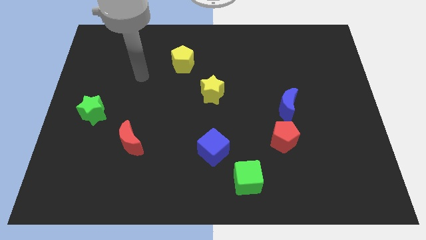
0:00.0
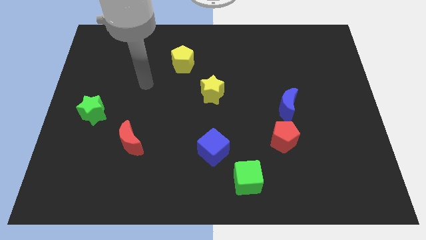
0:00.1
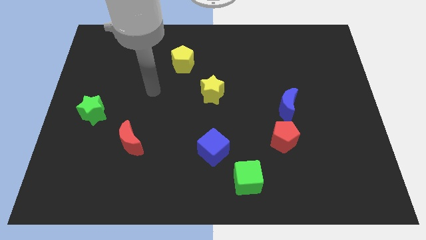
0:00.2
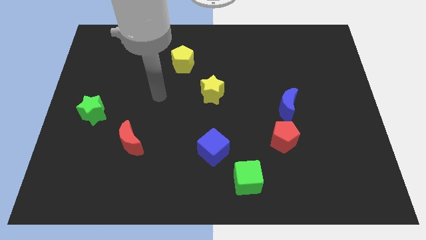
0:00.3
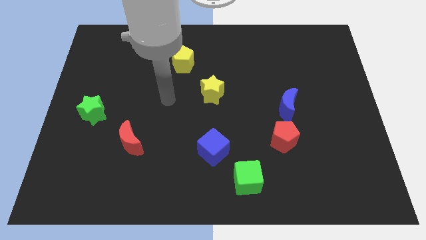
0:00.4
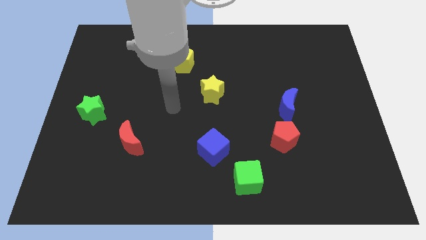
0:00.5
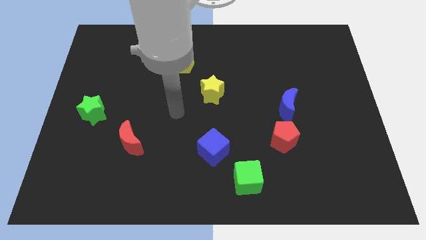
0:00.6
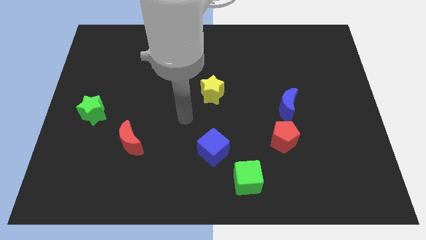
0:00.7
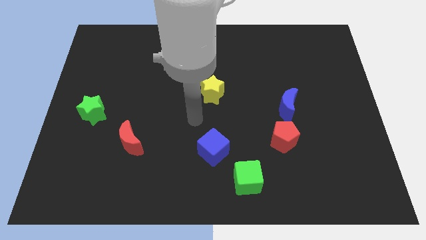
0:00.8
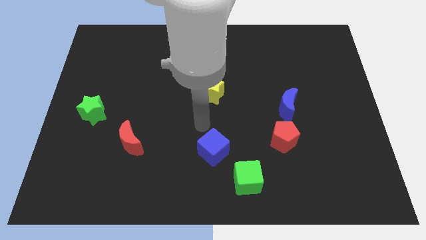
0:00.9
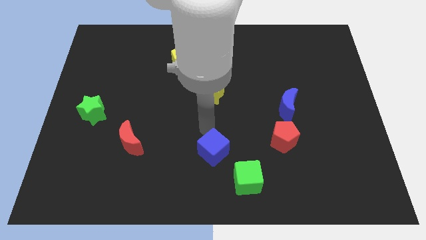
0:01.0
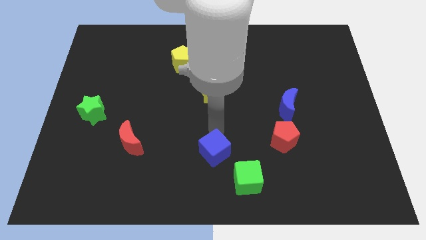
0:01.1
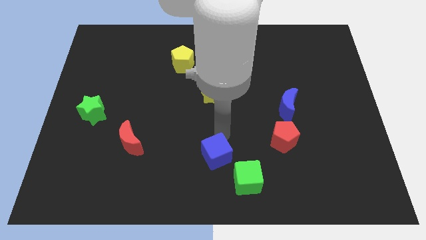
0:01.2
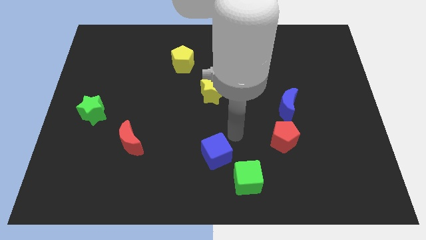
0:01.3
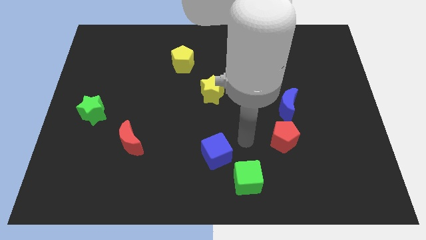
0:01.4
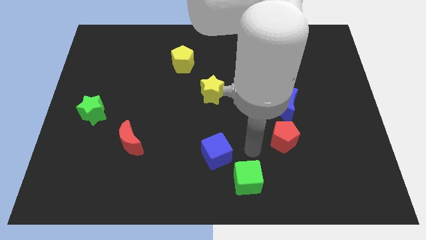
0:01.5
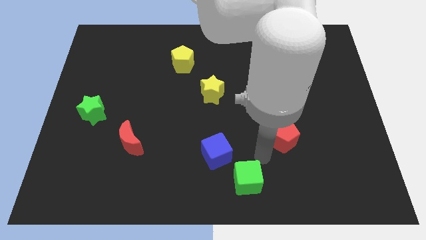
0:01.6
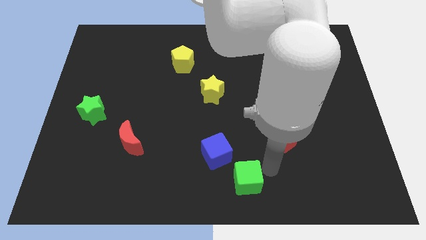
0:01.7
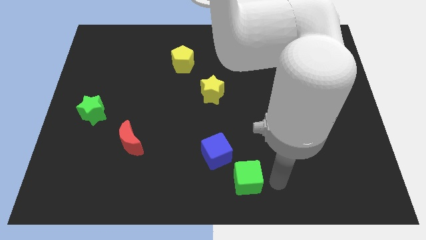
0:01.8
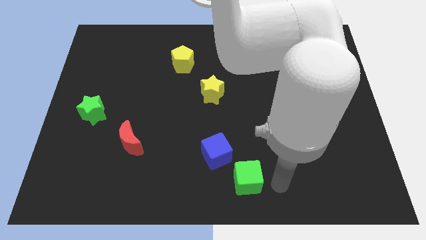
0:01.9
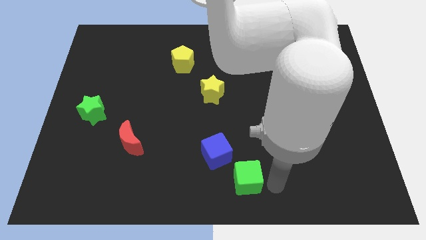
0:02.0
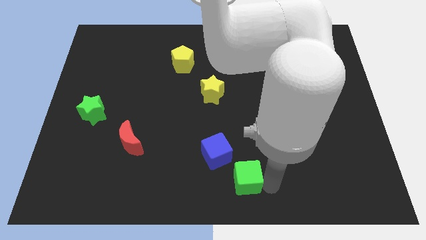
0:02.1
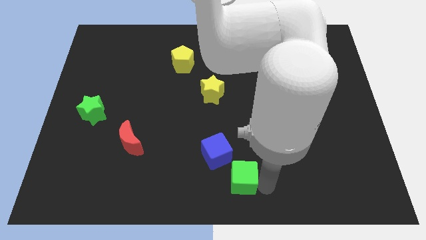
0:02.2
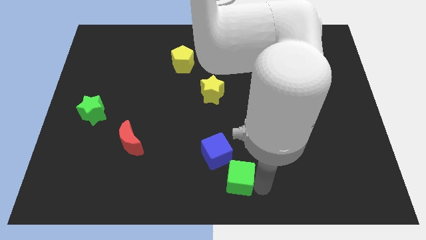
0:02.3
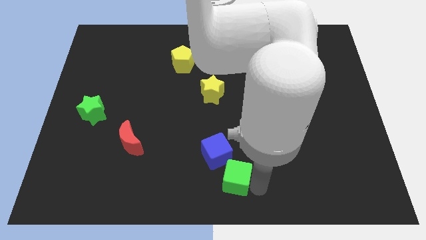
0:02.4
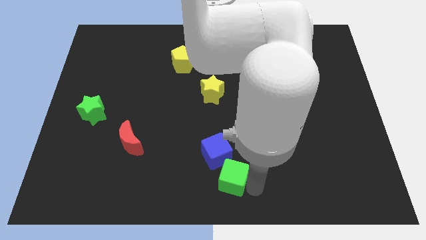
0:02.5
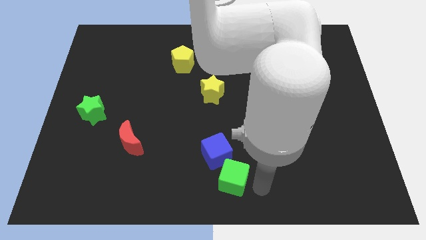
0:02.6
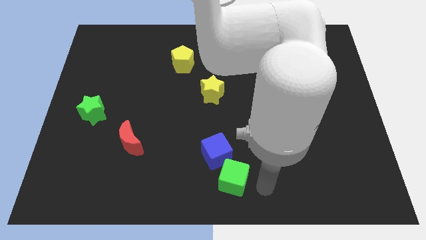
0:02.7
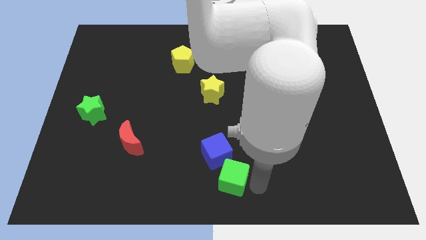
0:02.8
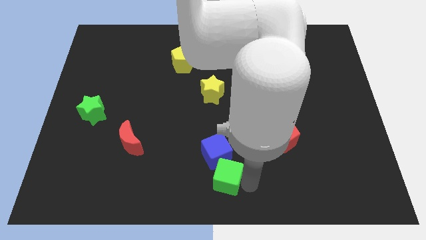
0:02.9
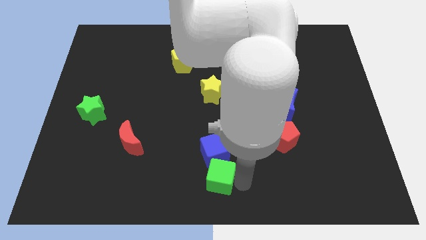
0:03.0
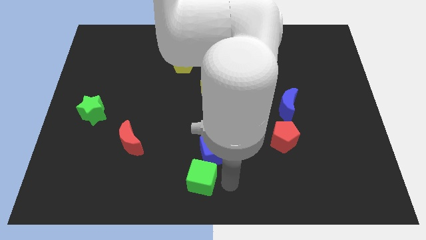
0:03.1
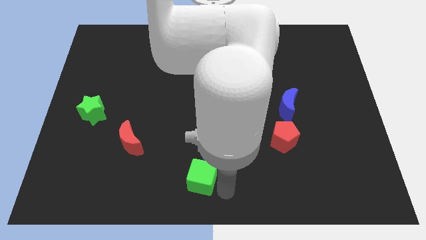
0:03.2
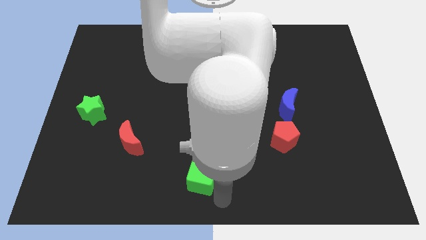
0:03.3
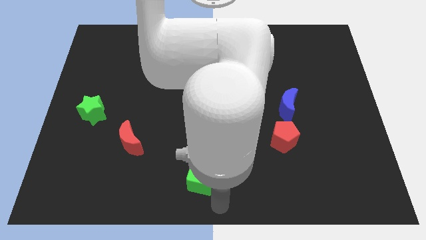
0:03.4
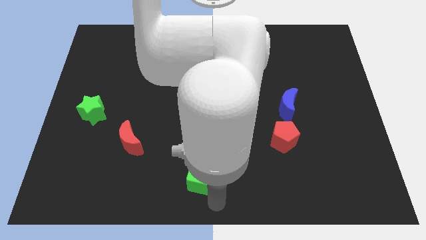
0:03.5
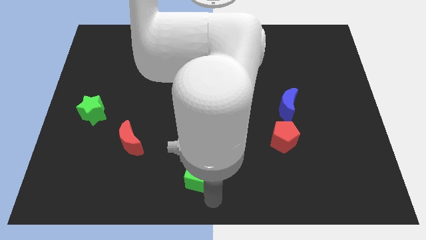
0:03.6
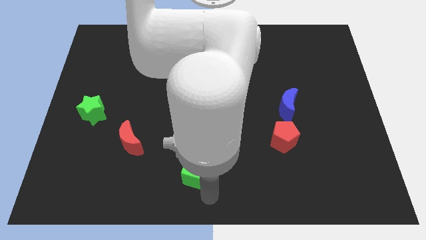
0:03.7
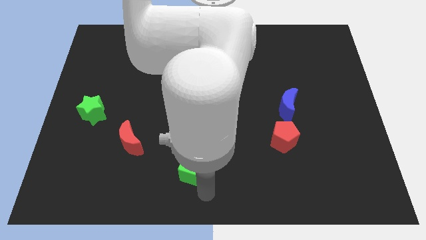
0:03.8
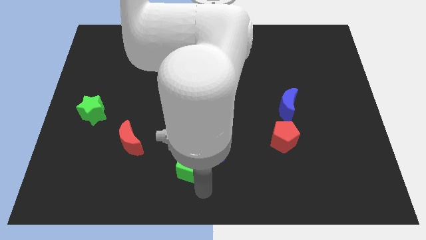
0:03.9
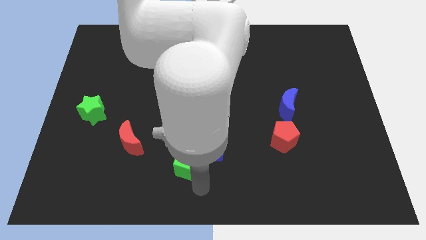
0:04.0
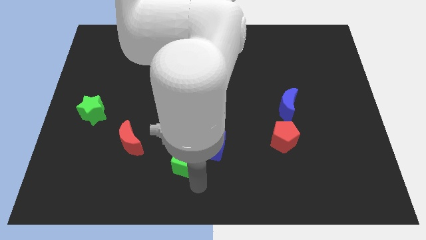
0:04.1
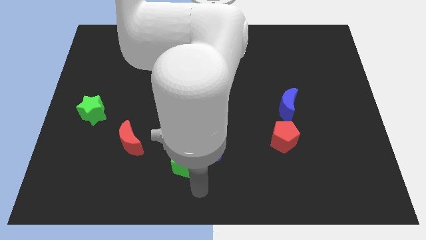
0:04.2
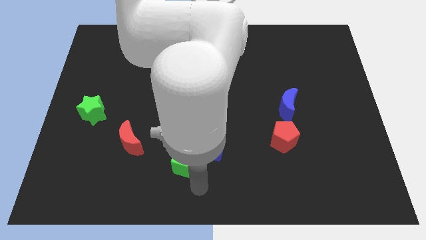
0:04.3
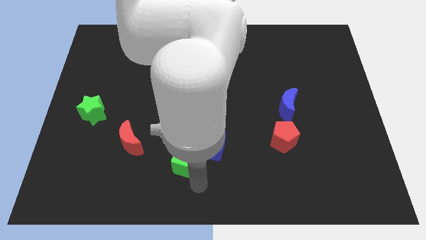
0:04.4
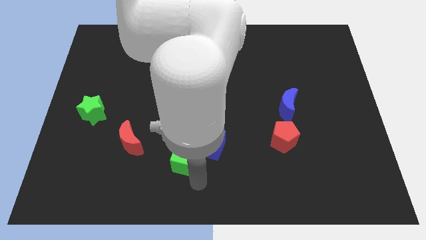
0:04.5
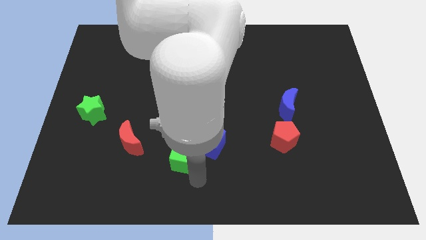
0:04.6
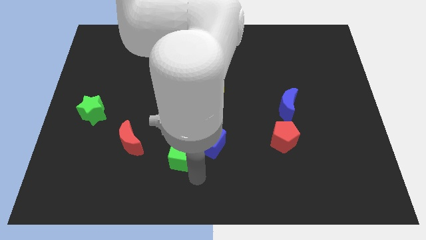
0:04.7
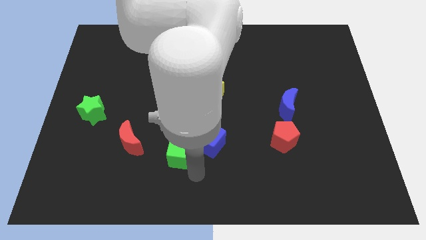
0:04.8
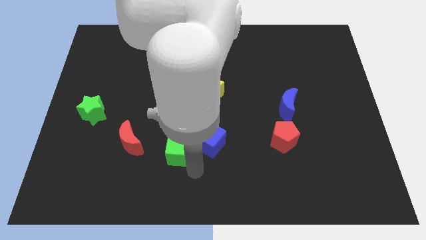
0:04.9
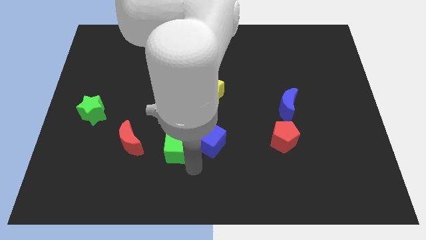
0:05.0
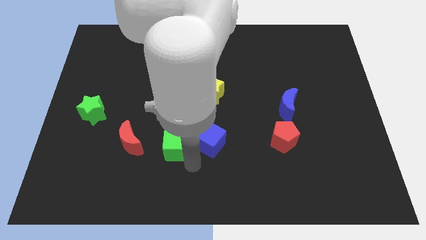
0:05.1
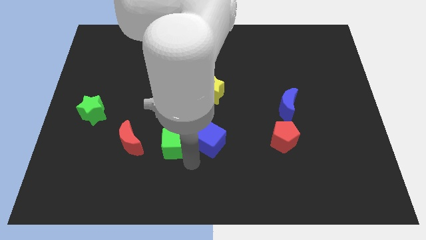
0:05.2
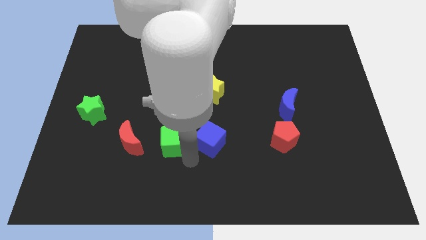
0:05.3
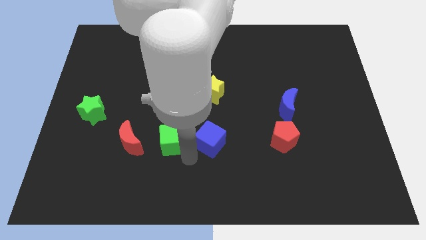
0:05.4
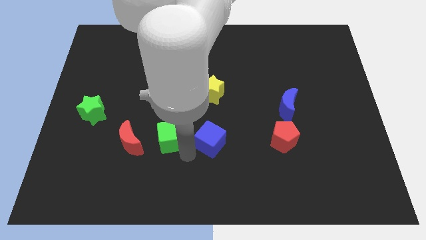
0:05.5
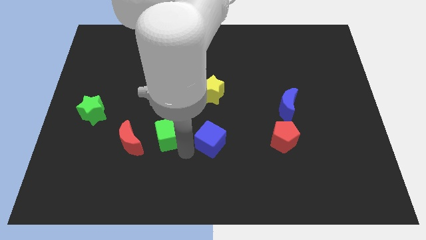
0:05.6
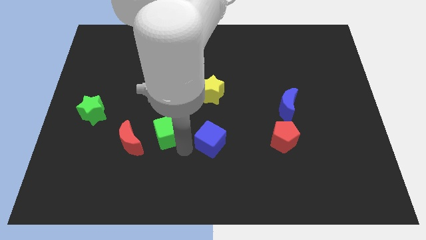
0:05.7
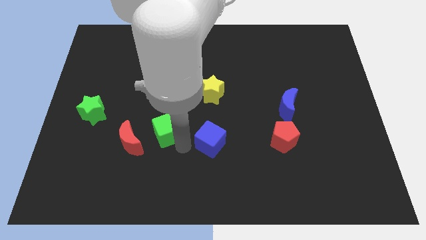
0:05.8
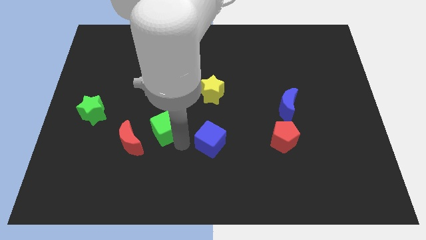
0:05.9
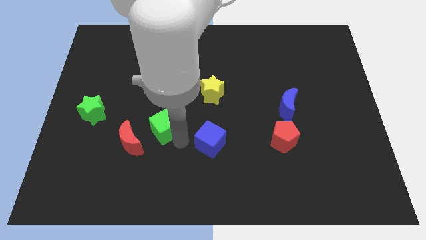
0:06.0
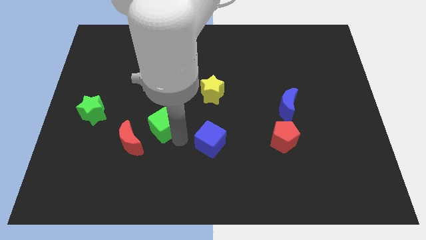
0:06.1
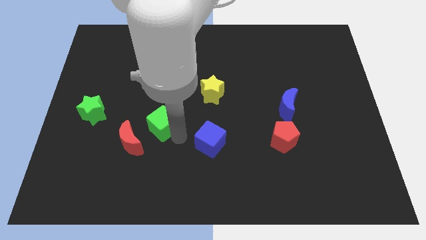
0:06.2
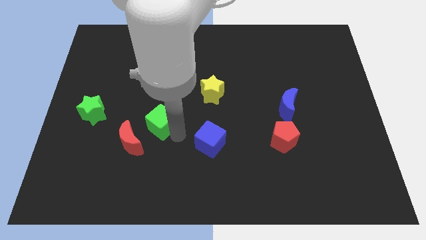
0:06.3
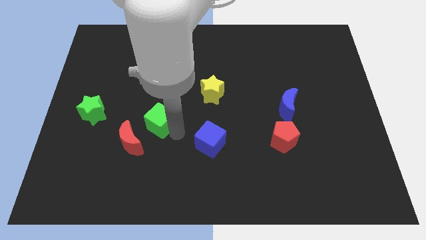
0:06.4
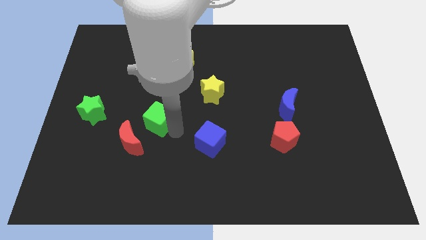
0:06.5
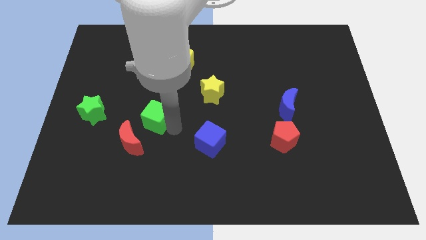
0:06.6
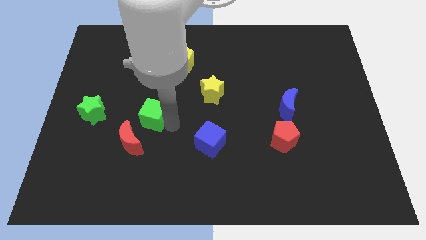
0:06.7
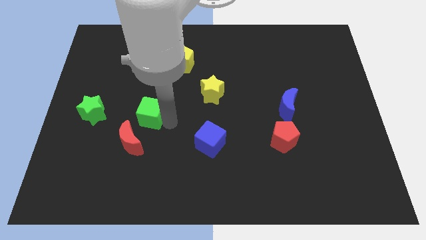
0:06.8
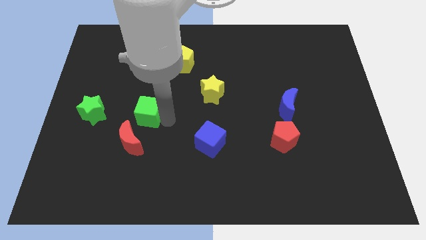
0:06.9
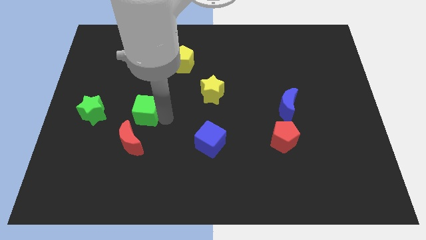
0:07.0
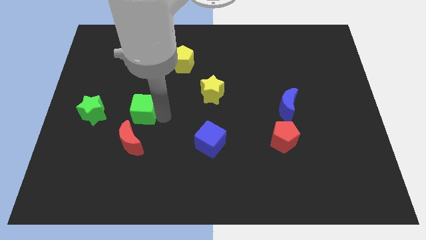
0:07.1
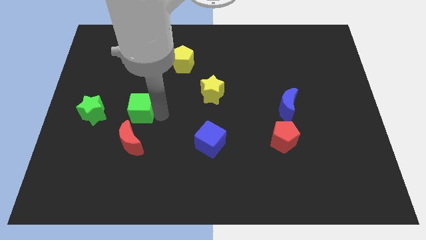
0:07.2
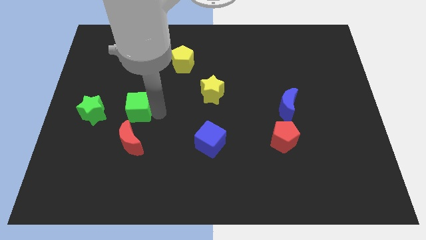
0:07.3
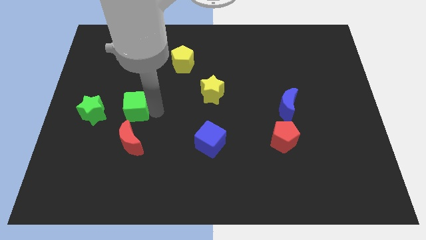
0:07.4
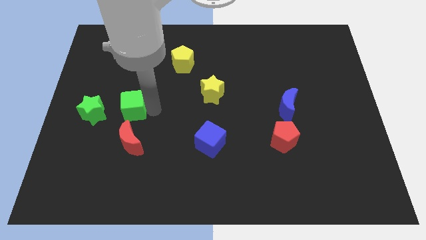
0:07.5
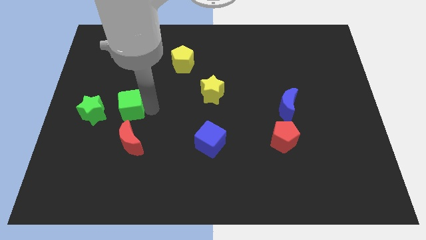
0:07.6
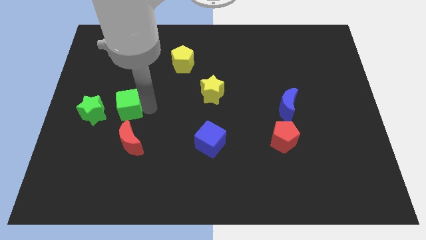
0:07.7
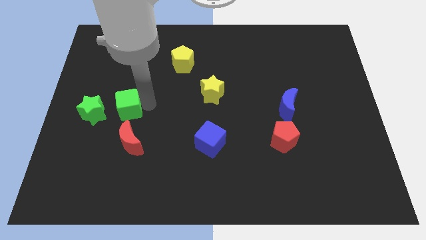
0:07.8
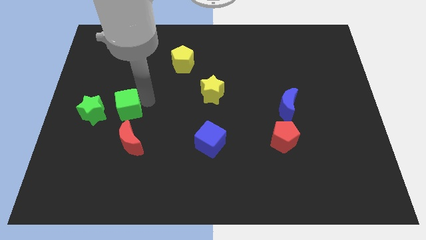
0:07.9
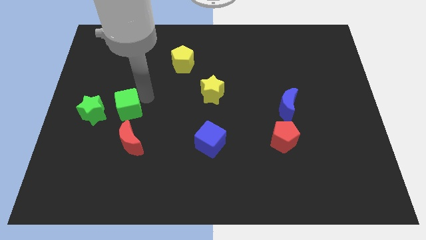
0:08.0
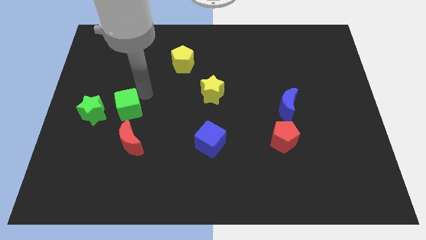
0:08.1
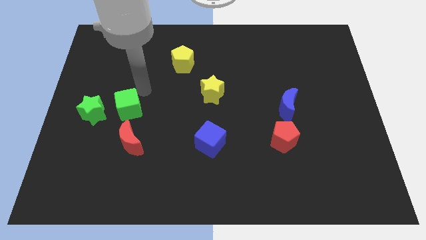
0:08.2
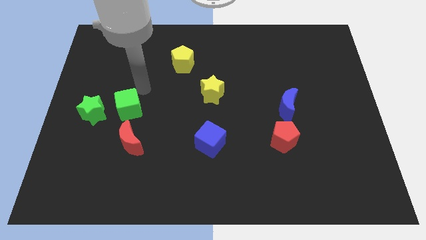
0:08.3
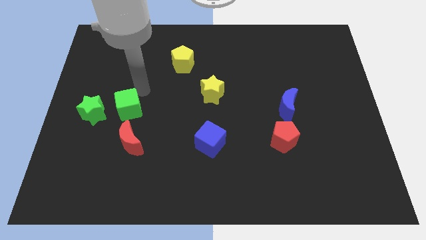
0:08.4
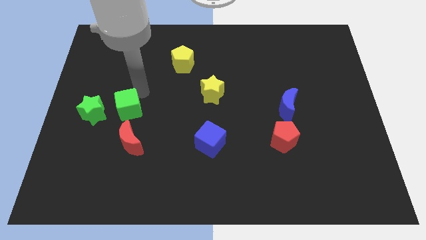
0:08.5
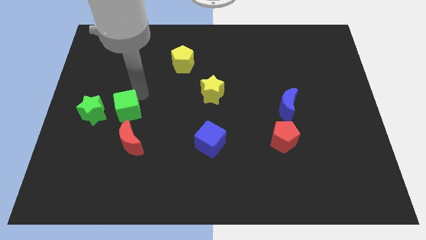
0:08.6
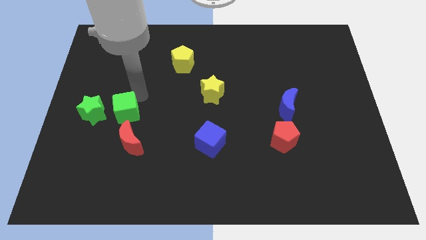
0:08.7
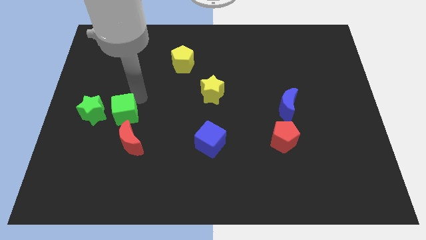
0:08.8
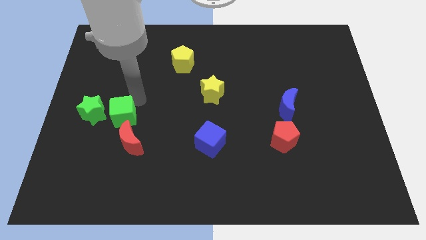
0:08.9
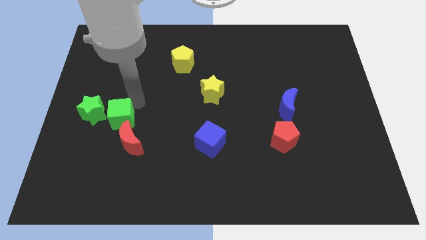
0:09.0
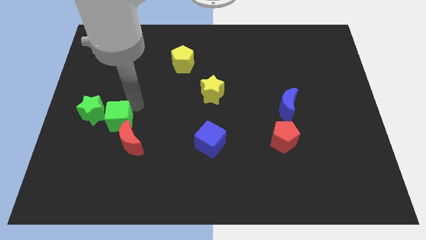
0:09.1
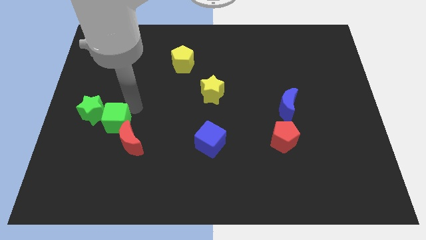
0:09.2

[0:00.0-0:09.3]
slide the green cube to the green star
